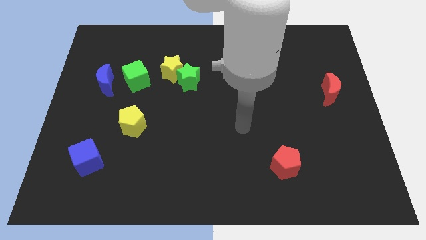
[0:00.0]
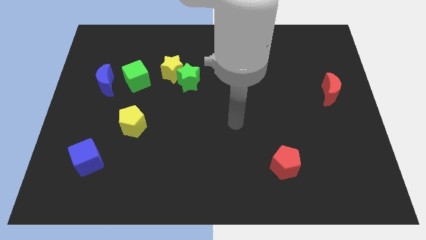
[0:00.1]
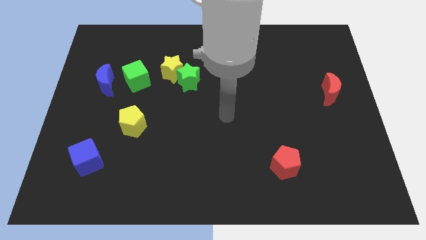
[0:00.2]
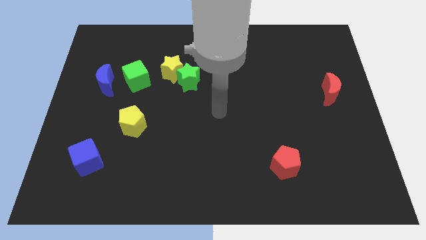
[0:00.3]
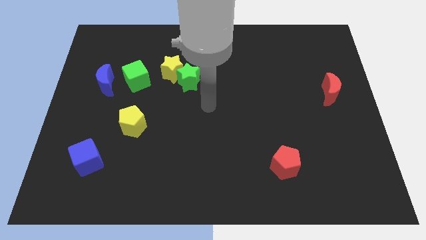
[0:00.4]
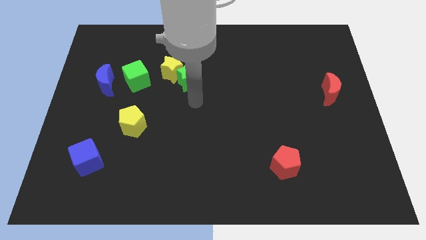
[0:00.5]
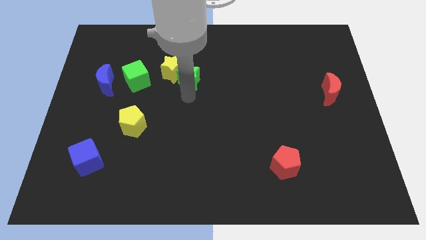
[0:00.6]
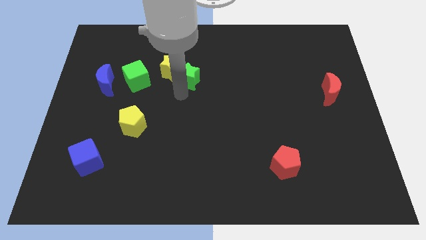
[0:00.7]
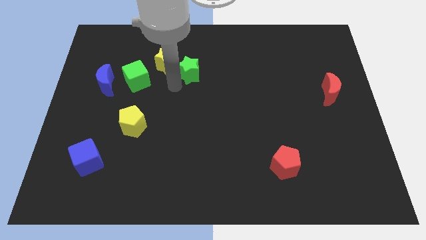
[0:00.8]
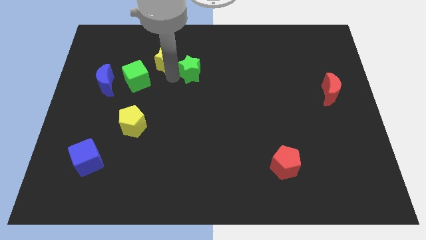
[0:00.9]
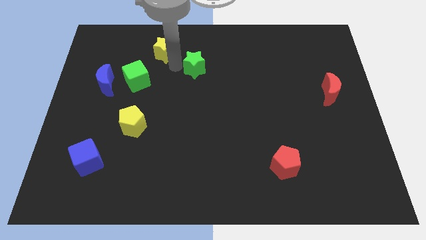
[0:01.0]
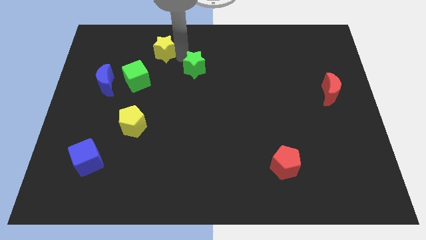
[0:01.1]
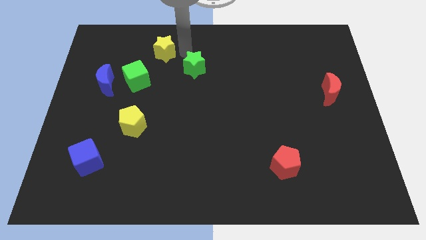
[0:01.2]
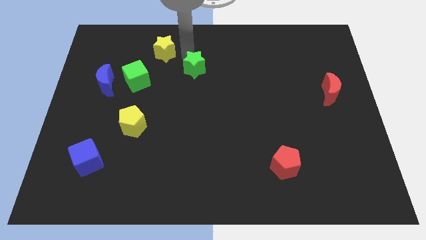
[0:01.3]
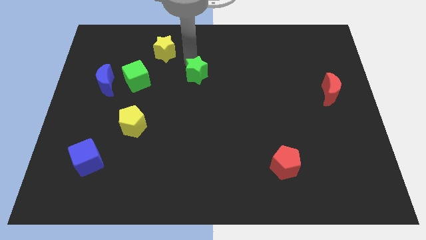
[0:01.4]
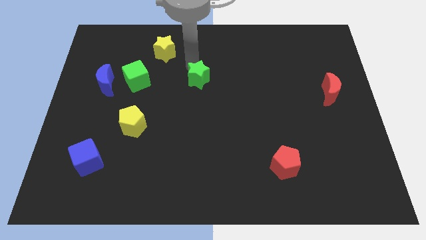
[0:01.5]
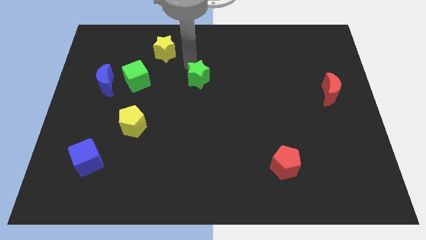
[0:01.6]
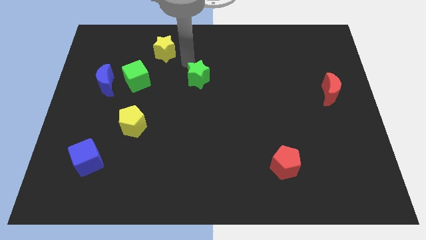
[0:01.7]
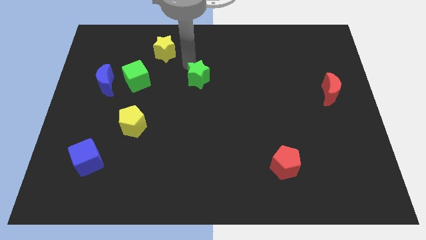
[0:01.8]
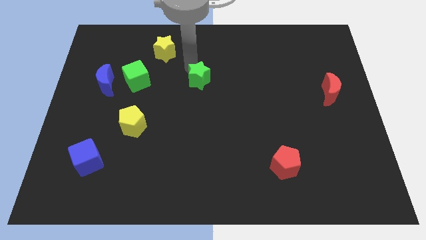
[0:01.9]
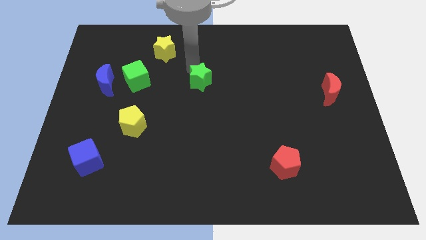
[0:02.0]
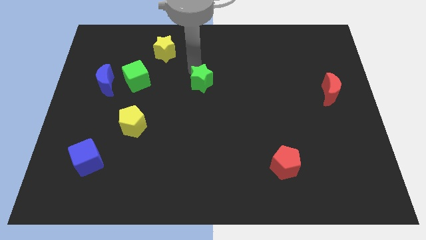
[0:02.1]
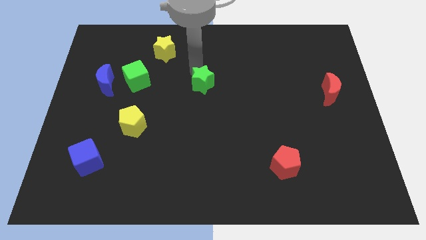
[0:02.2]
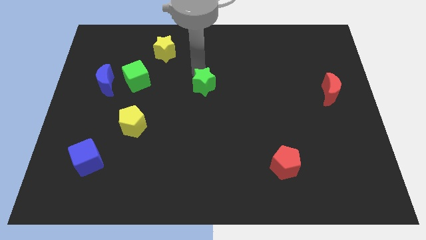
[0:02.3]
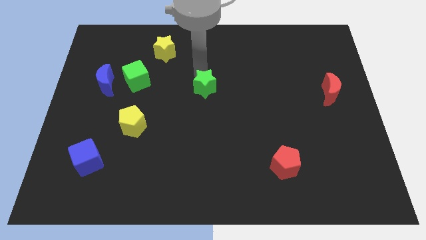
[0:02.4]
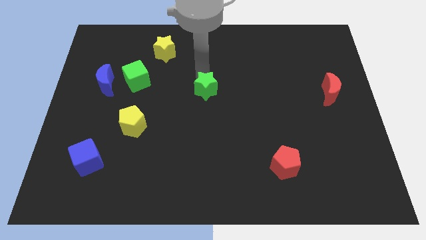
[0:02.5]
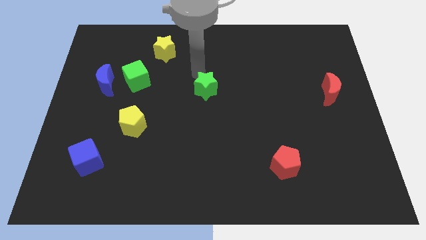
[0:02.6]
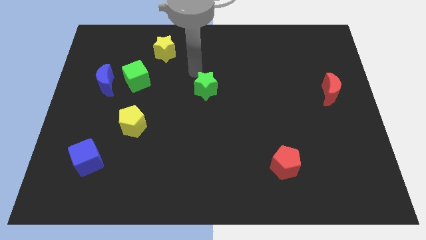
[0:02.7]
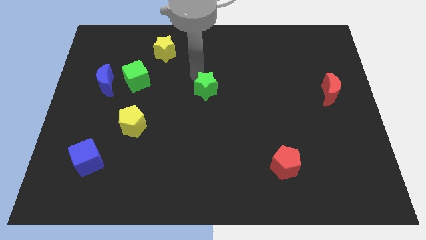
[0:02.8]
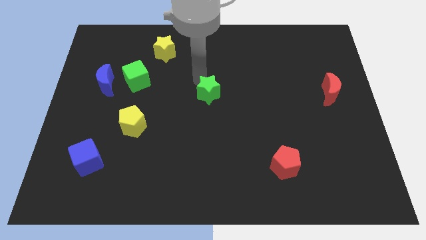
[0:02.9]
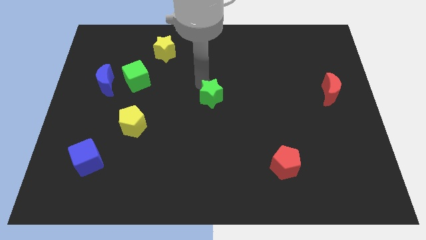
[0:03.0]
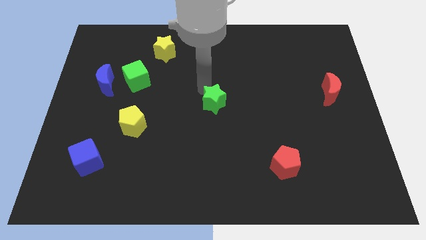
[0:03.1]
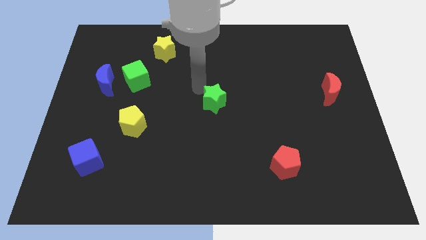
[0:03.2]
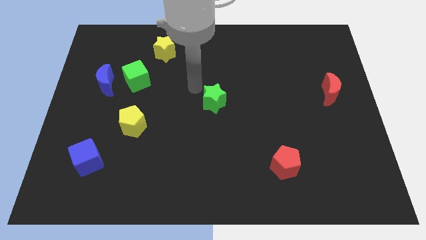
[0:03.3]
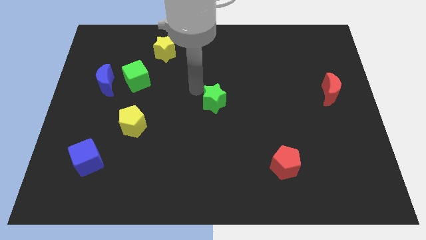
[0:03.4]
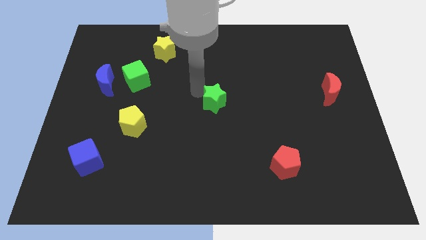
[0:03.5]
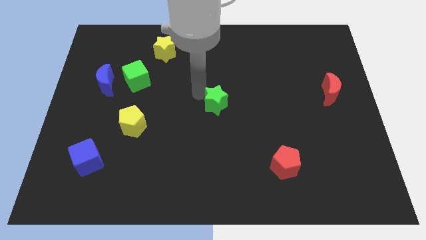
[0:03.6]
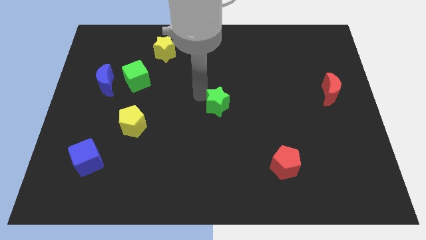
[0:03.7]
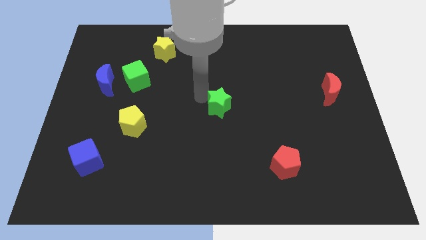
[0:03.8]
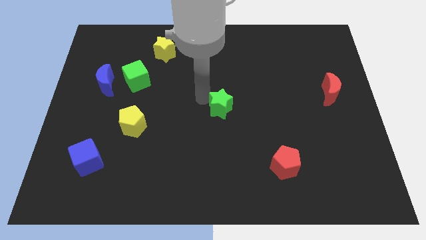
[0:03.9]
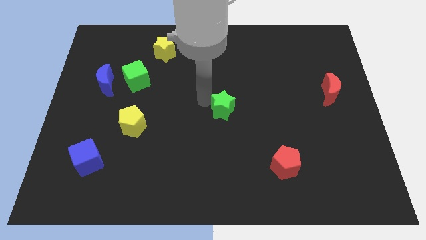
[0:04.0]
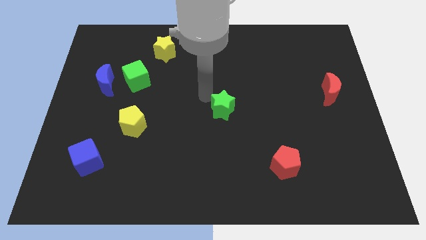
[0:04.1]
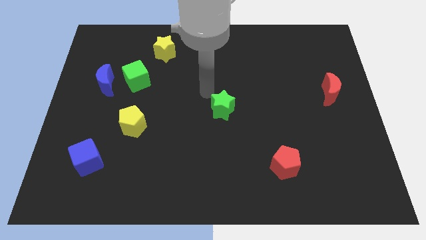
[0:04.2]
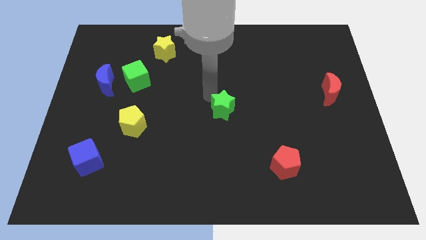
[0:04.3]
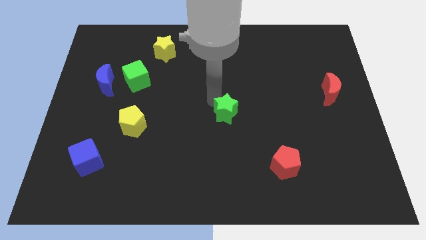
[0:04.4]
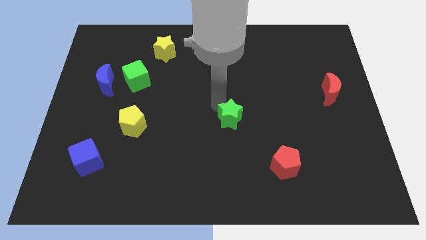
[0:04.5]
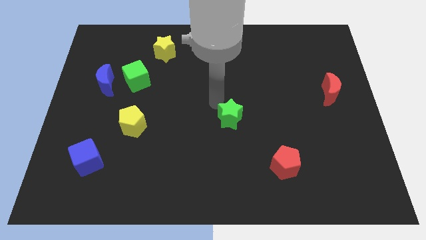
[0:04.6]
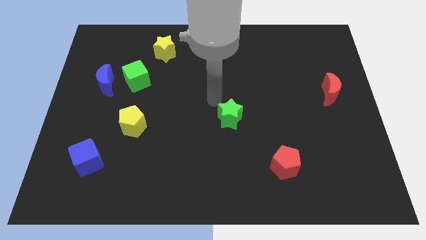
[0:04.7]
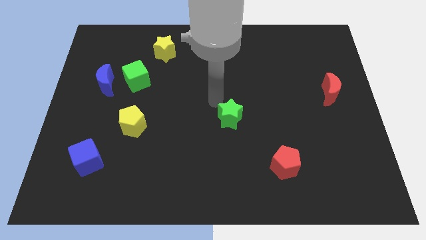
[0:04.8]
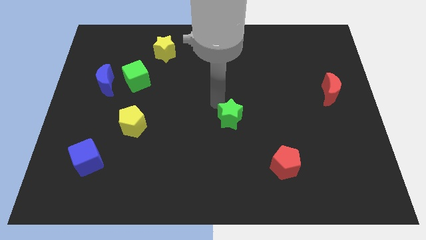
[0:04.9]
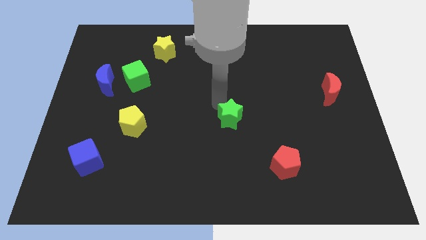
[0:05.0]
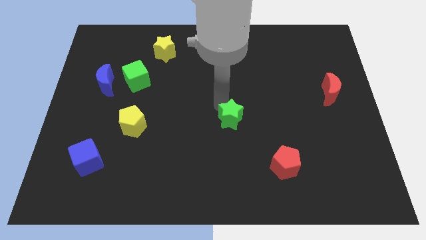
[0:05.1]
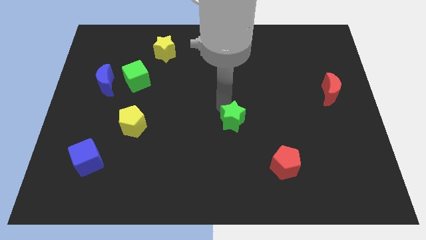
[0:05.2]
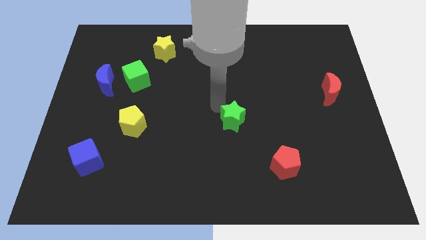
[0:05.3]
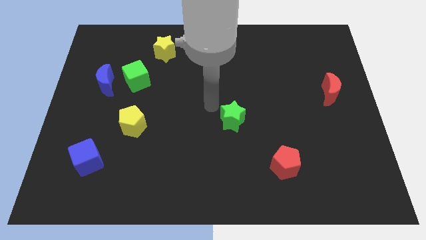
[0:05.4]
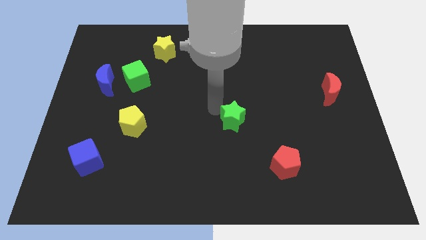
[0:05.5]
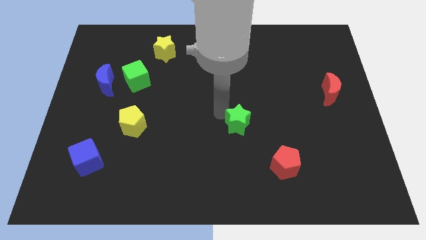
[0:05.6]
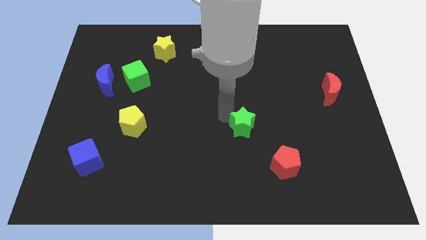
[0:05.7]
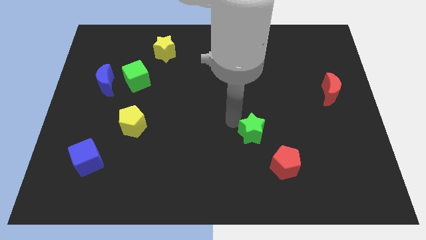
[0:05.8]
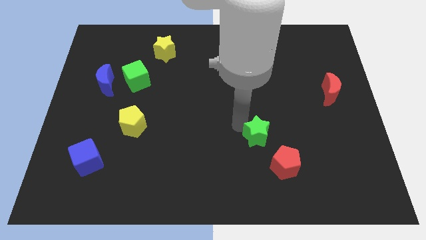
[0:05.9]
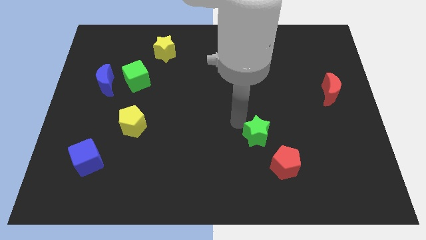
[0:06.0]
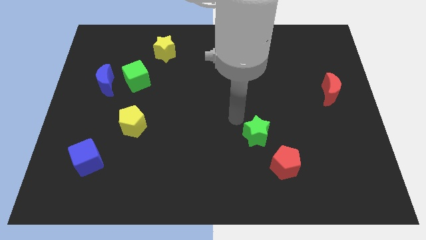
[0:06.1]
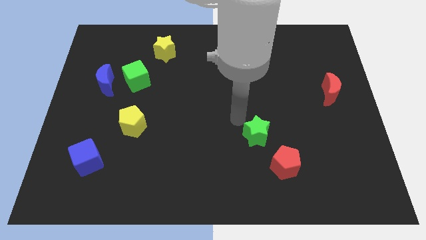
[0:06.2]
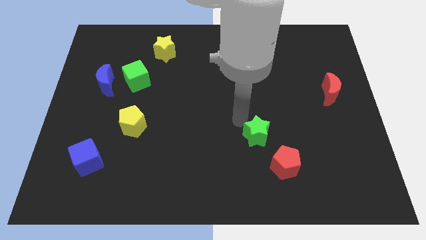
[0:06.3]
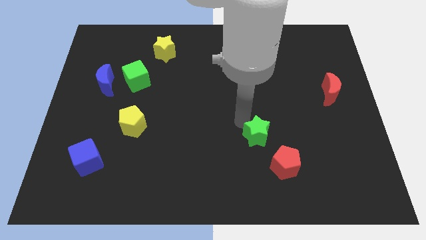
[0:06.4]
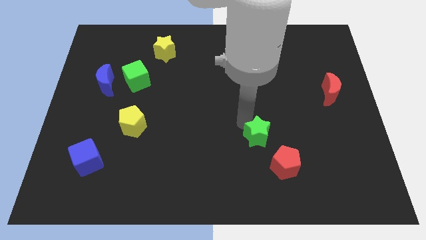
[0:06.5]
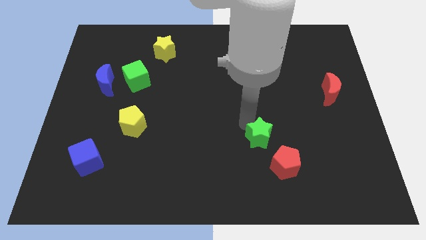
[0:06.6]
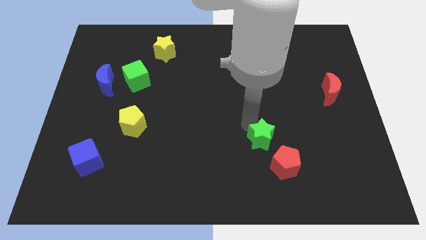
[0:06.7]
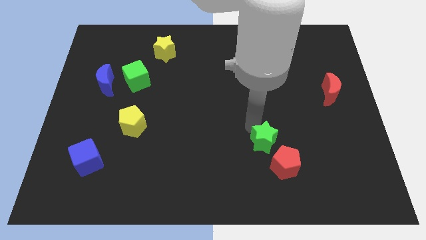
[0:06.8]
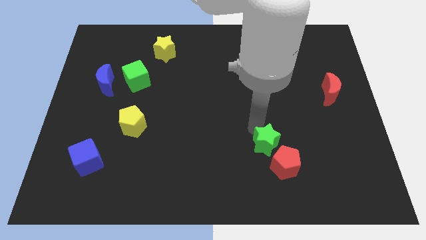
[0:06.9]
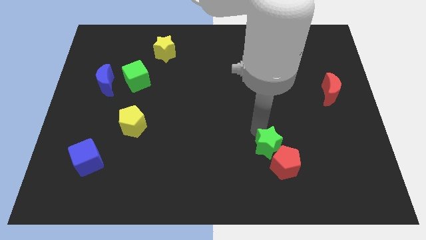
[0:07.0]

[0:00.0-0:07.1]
put the green star to the red pentagon
